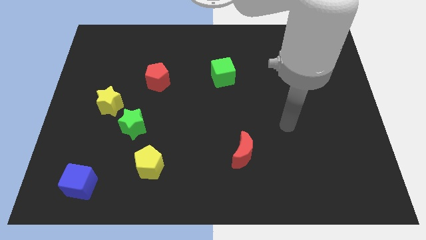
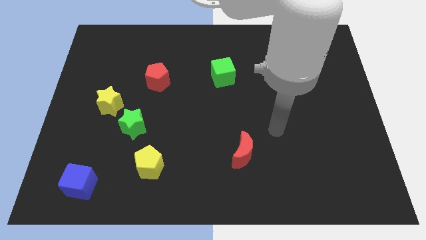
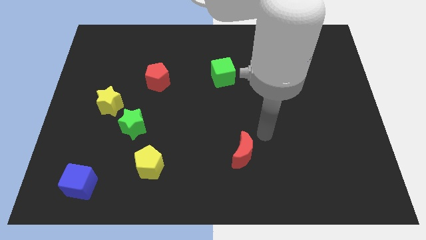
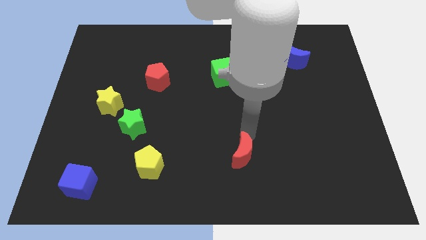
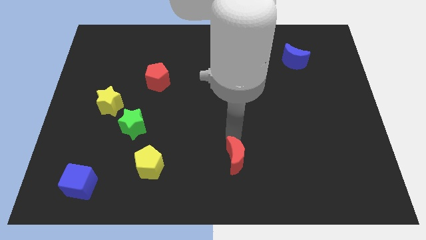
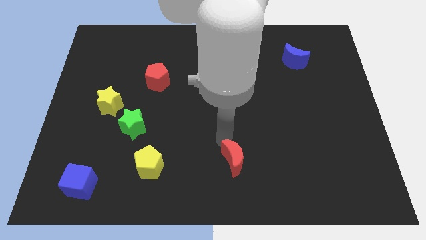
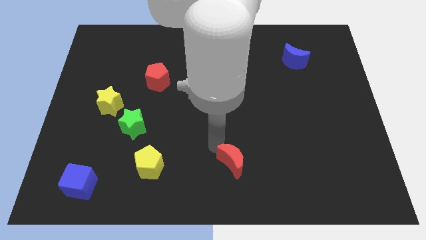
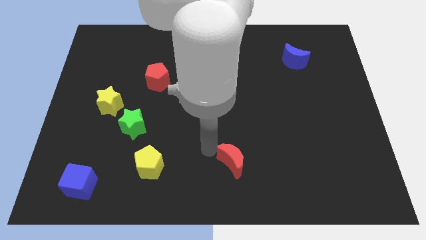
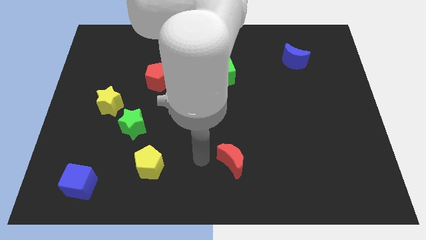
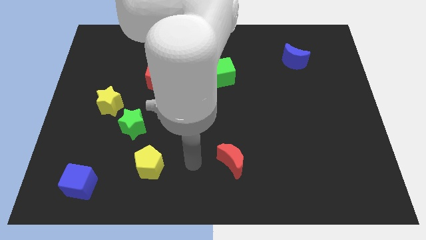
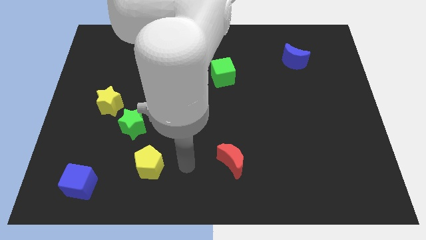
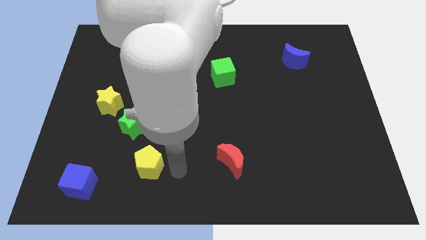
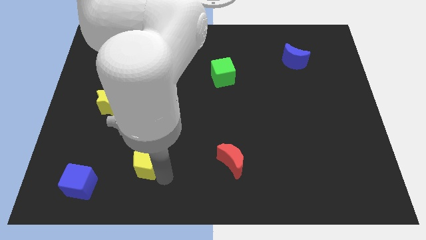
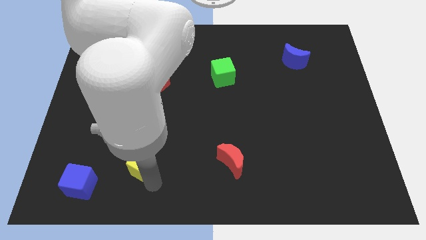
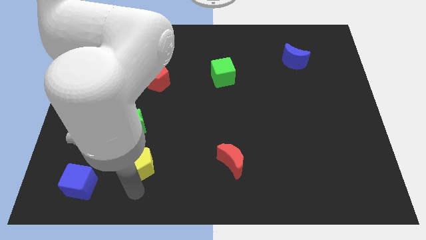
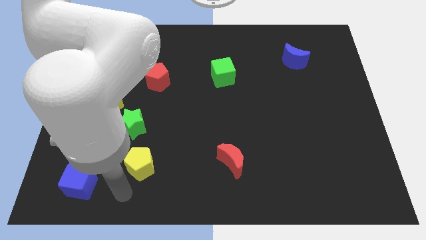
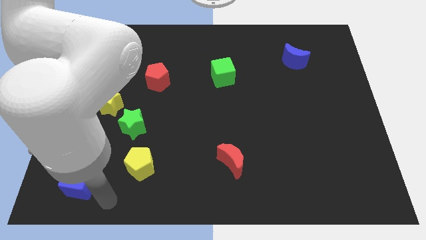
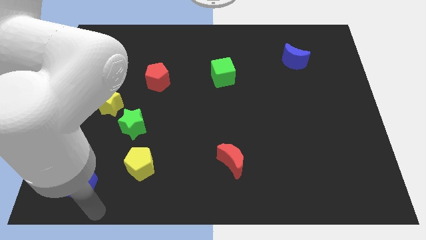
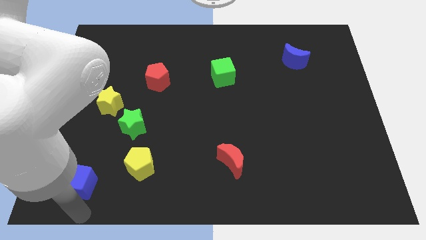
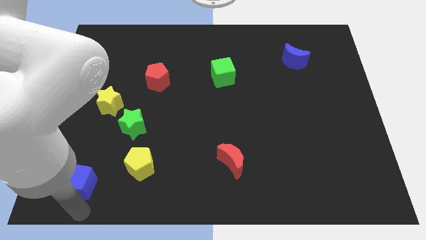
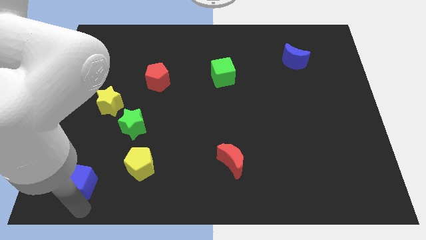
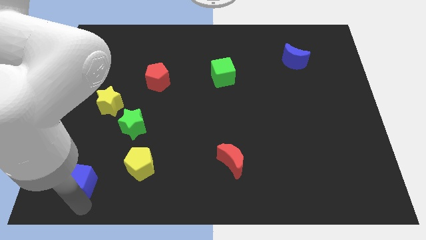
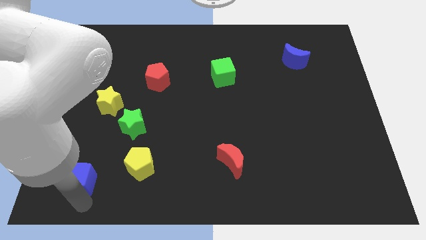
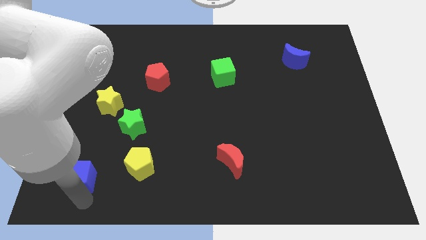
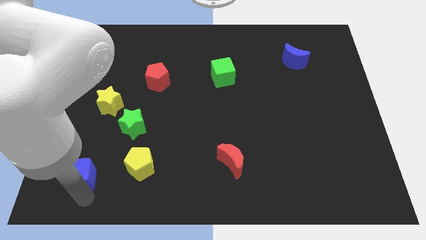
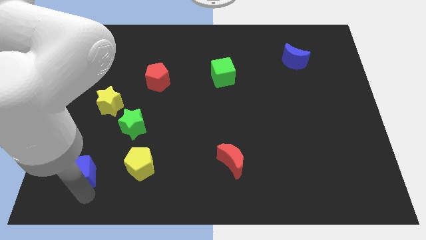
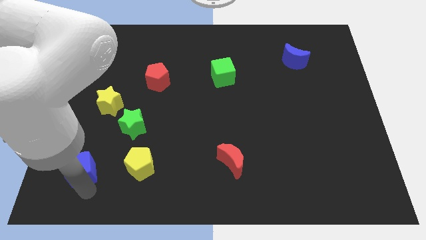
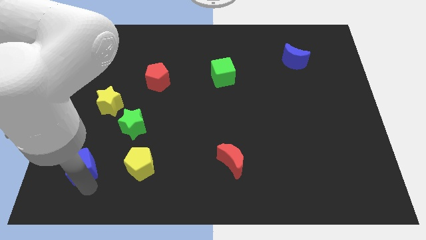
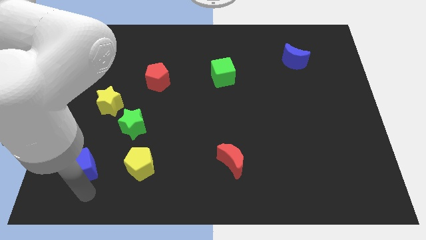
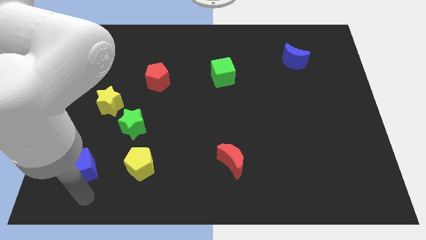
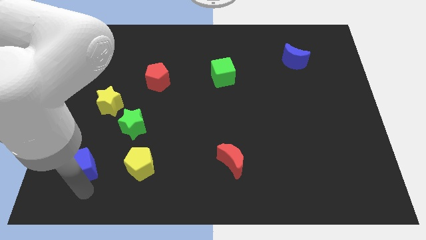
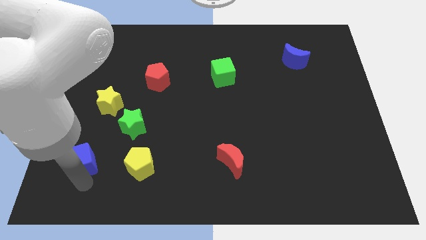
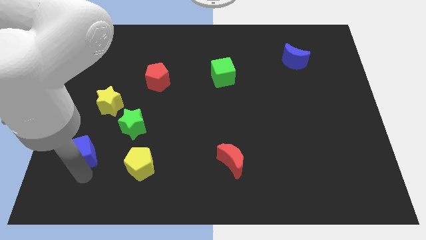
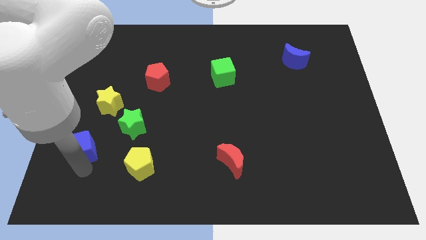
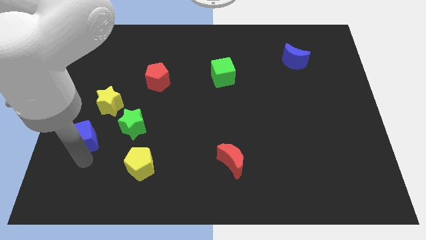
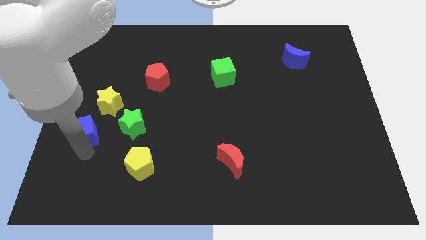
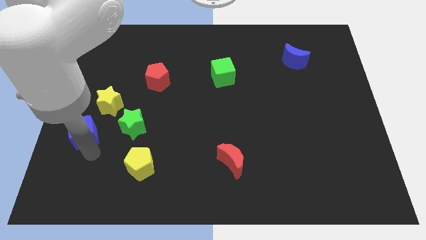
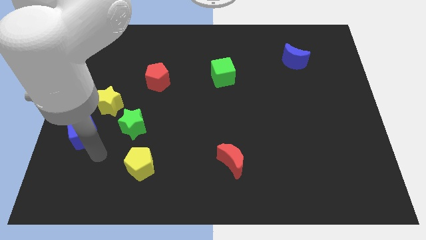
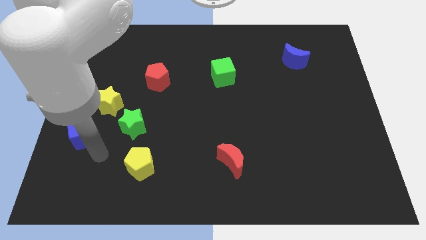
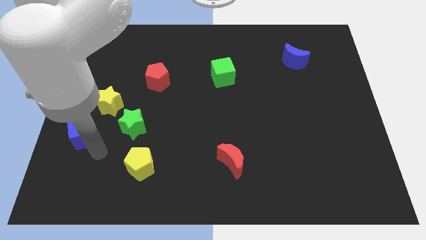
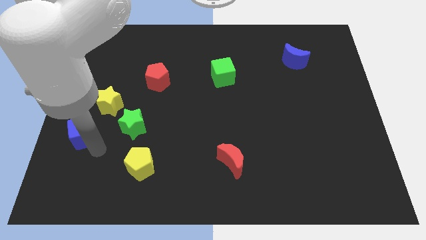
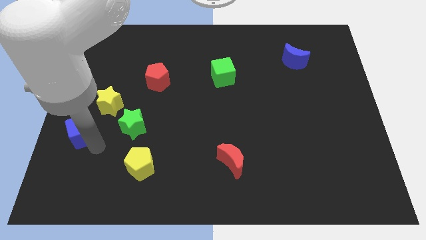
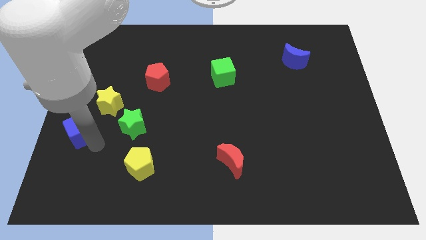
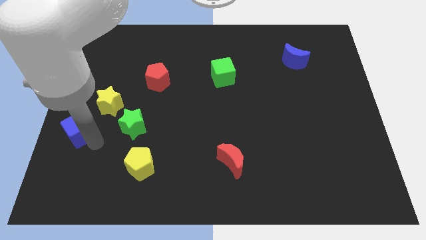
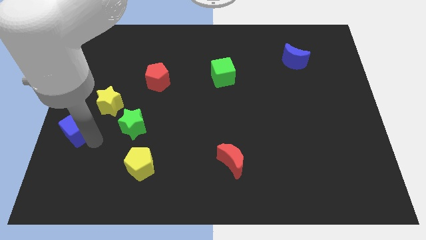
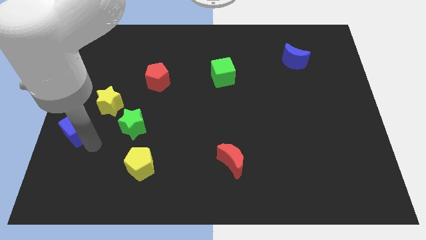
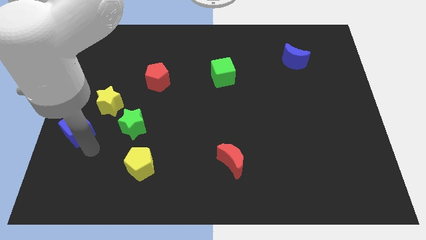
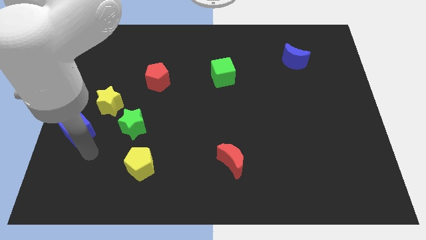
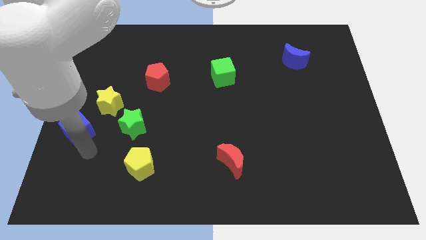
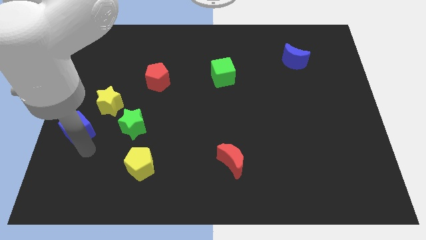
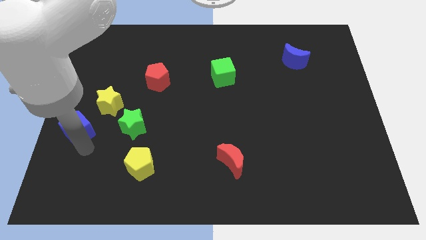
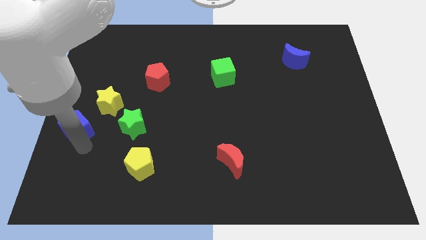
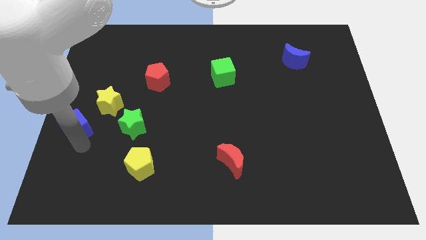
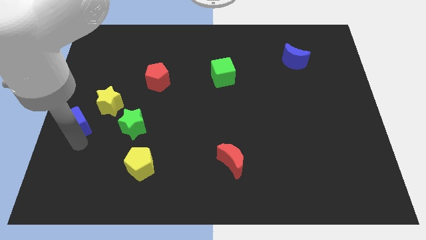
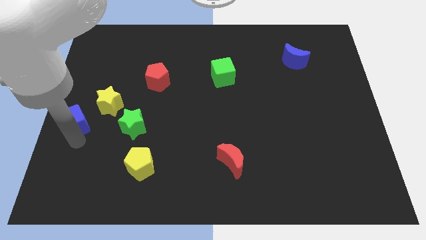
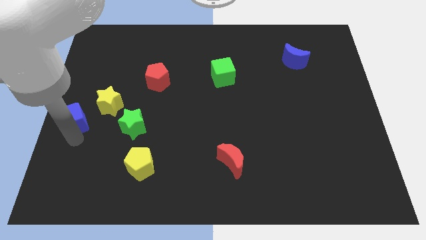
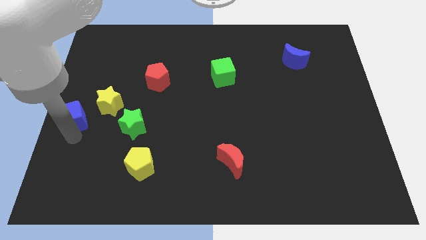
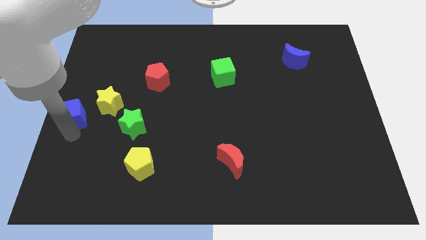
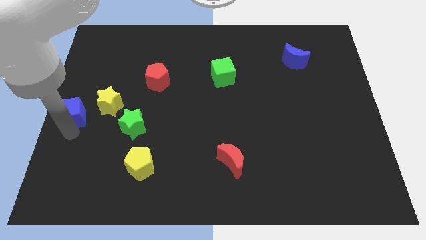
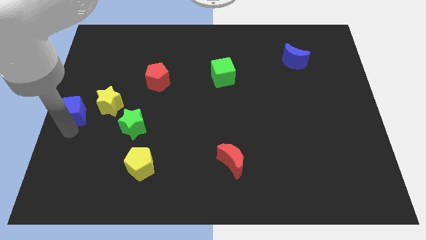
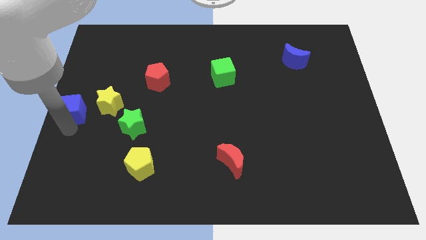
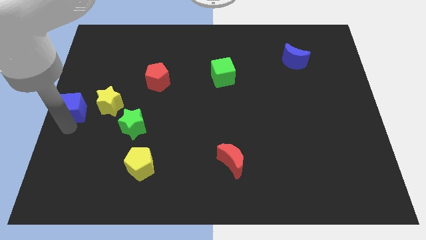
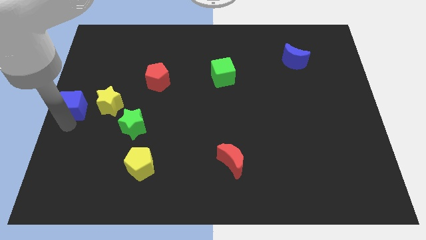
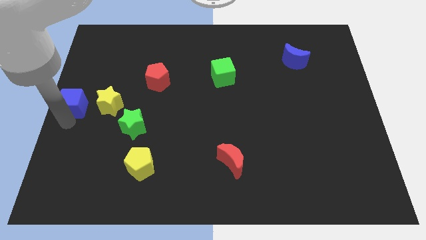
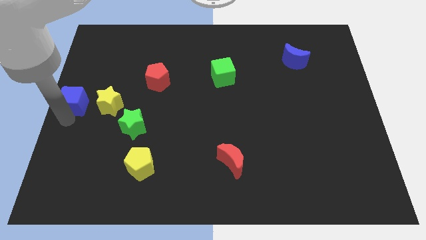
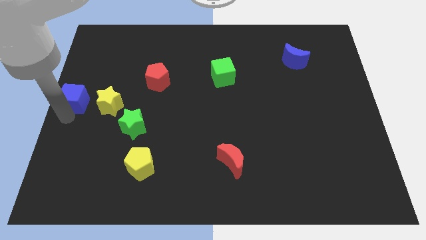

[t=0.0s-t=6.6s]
slide the blue cube up

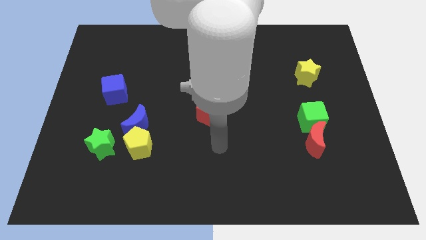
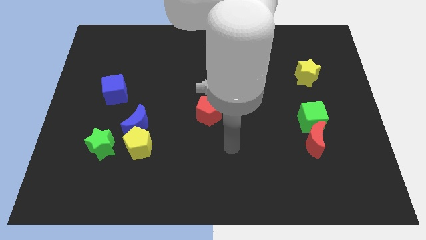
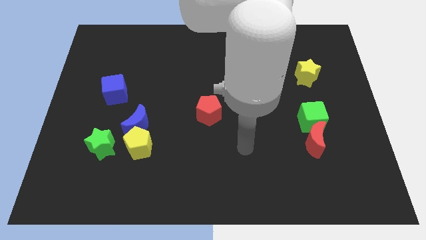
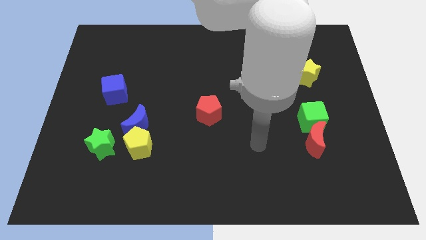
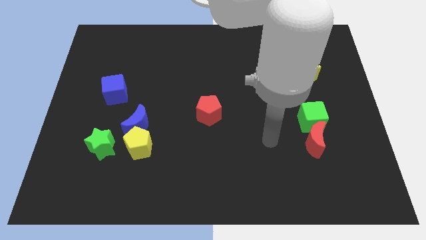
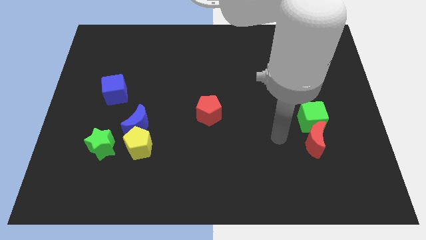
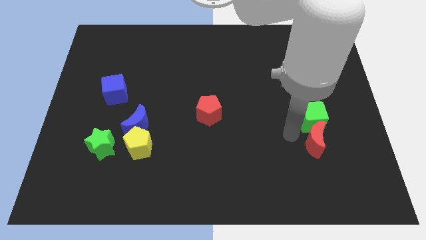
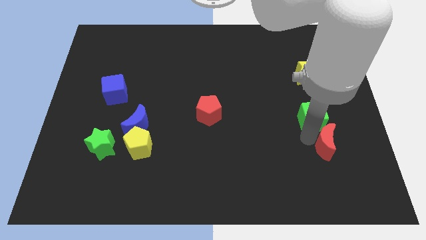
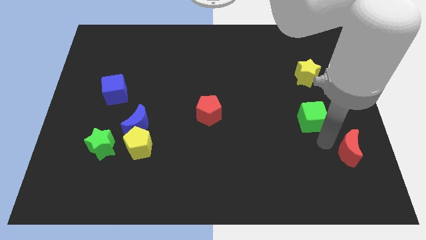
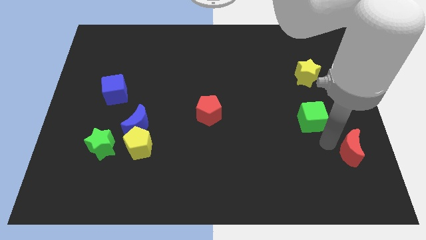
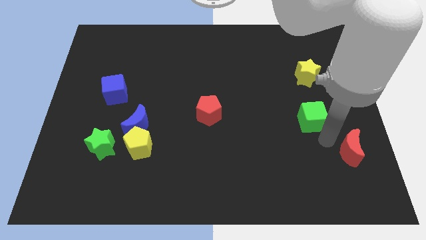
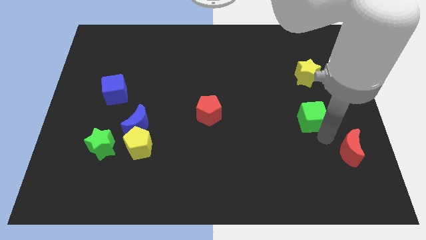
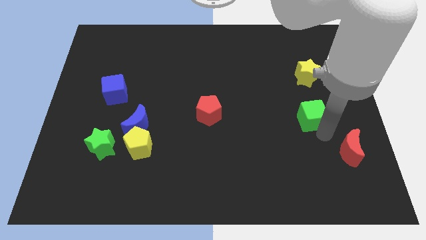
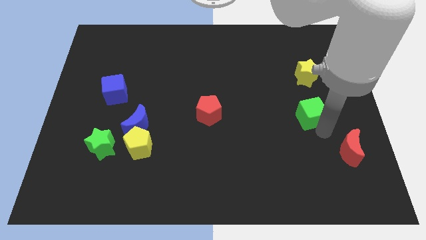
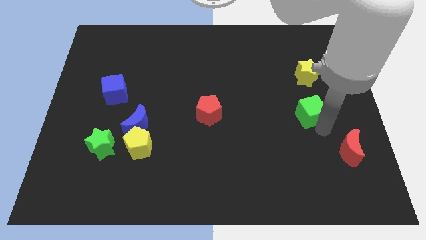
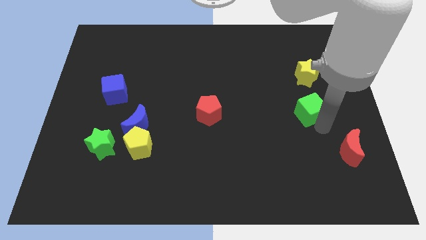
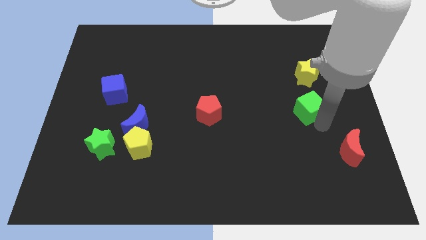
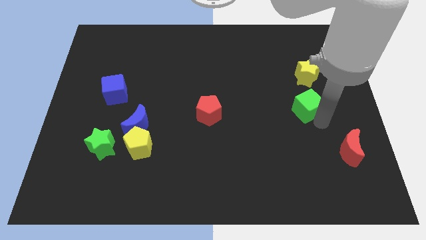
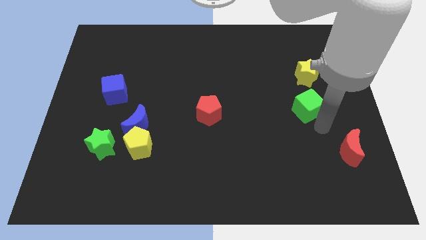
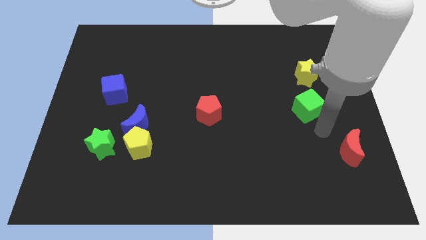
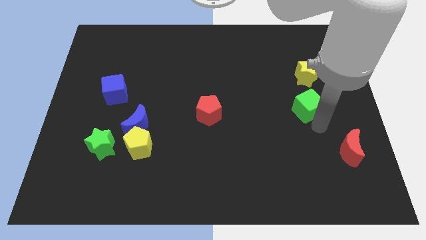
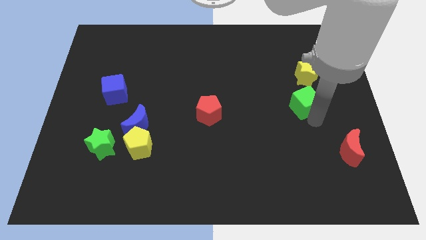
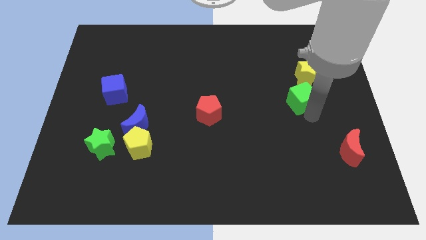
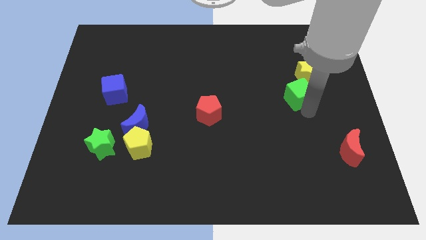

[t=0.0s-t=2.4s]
slightly push the green cube up
